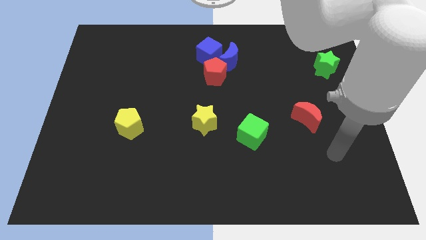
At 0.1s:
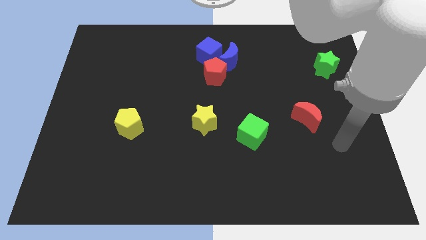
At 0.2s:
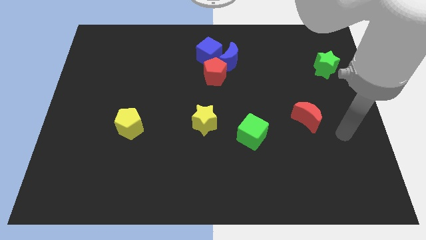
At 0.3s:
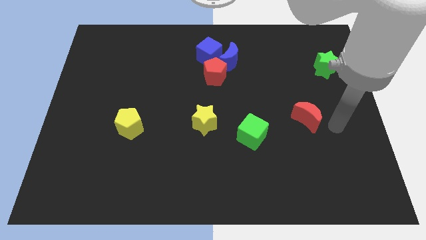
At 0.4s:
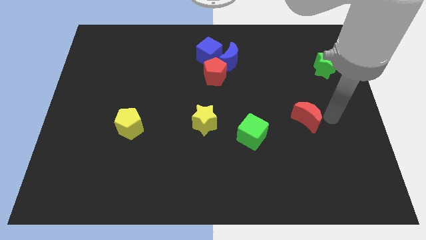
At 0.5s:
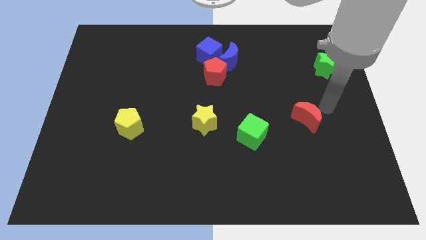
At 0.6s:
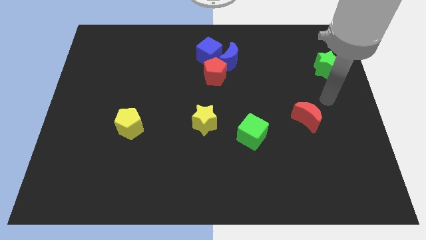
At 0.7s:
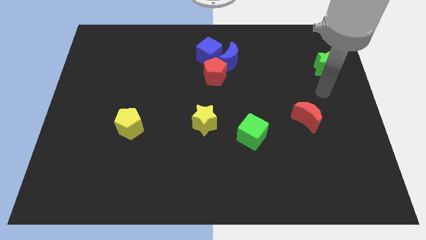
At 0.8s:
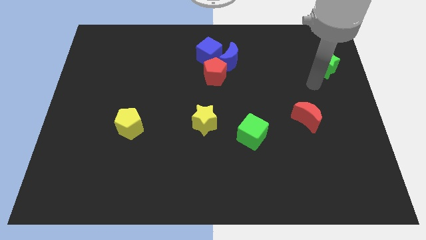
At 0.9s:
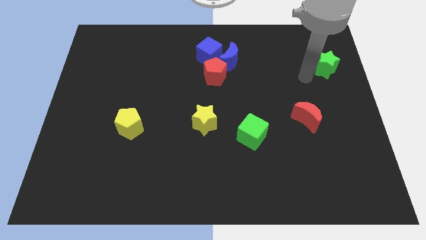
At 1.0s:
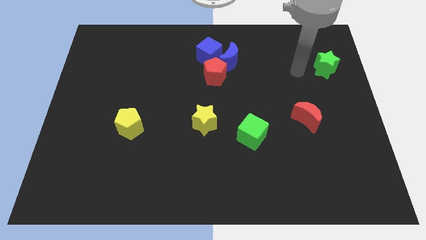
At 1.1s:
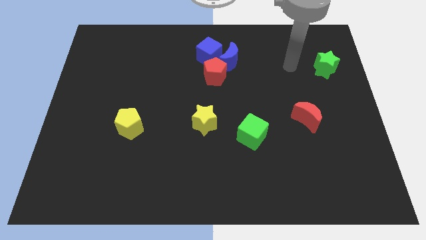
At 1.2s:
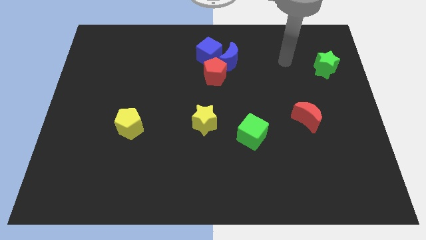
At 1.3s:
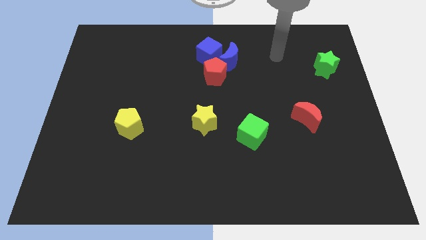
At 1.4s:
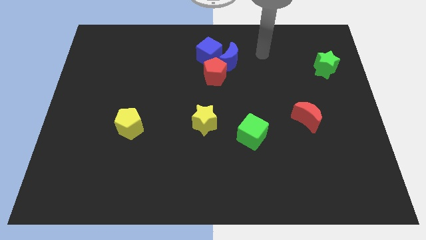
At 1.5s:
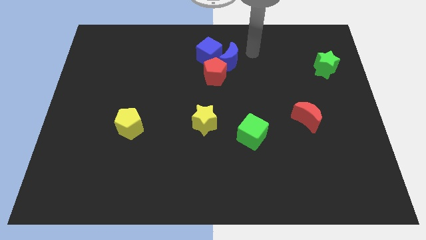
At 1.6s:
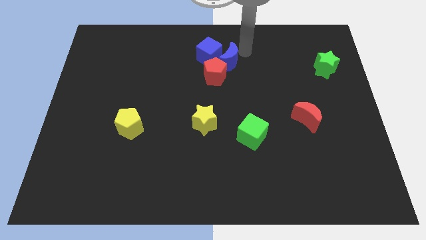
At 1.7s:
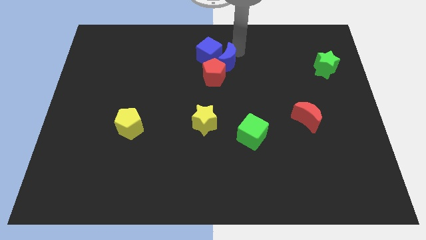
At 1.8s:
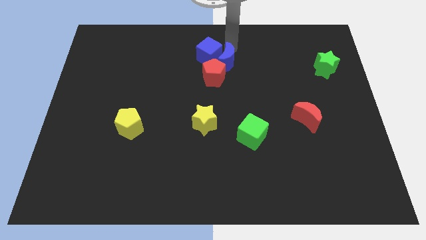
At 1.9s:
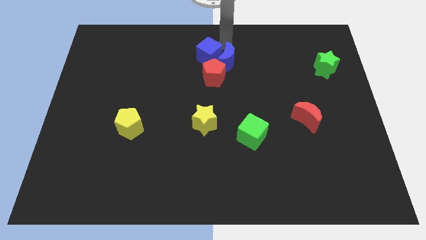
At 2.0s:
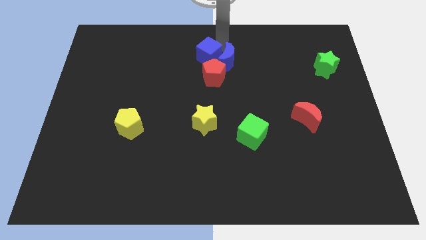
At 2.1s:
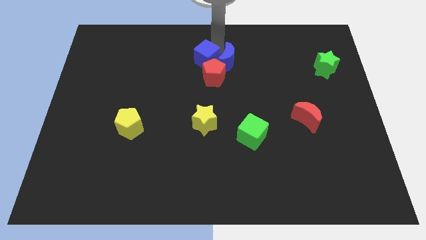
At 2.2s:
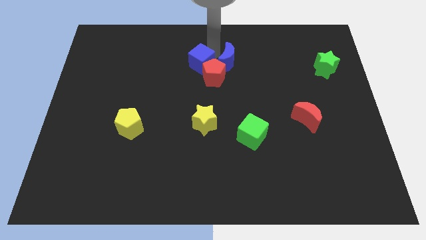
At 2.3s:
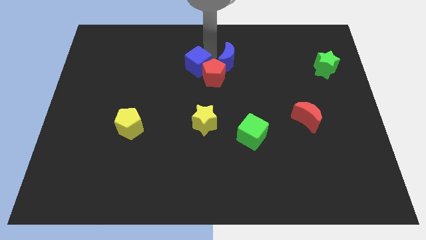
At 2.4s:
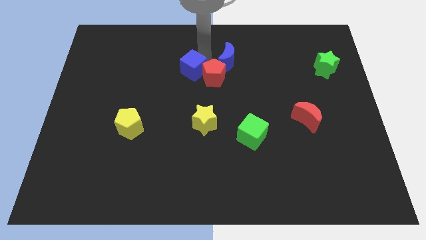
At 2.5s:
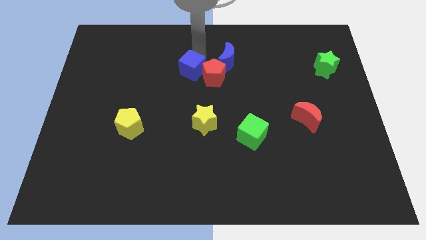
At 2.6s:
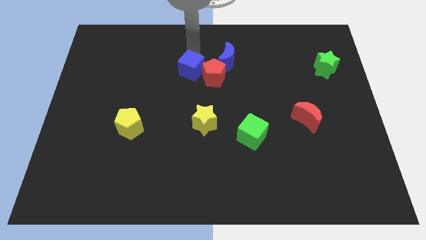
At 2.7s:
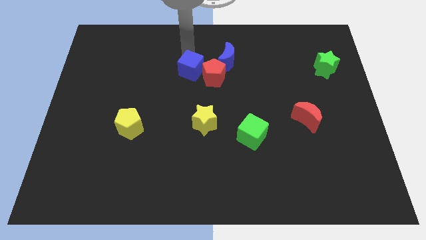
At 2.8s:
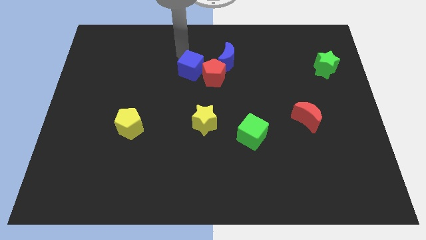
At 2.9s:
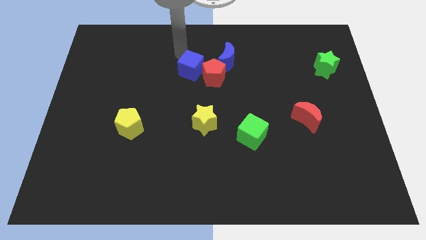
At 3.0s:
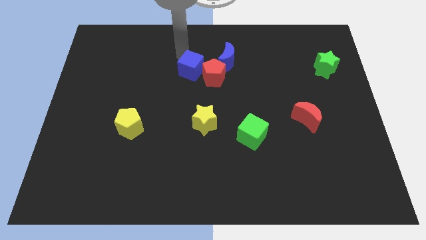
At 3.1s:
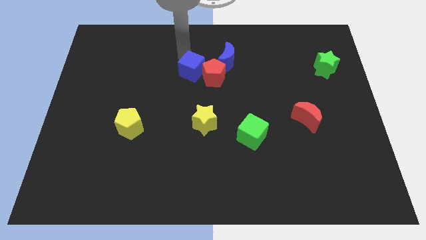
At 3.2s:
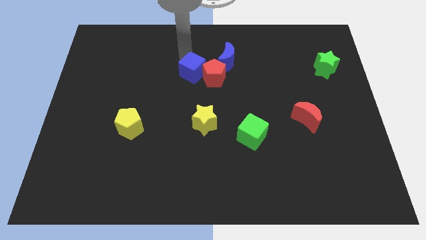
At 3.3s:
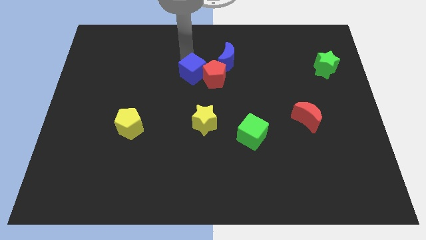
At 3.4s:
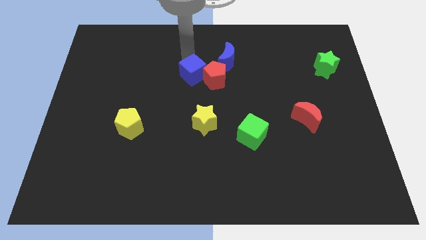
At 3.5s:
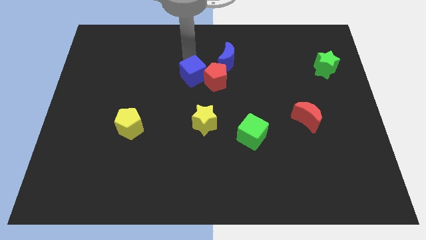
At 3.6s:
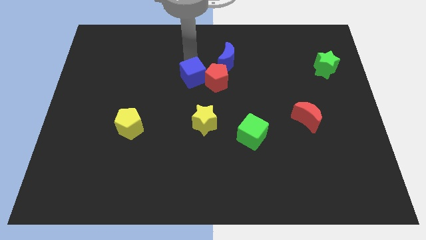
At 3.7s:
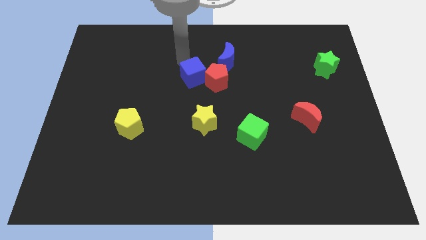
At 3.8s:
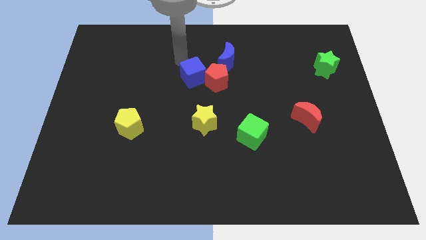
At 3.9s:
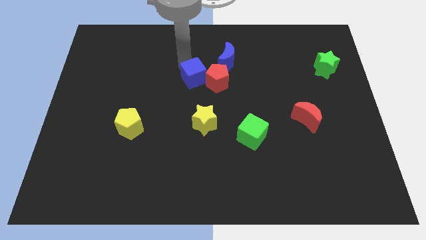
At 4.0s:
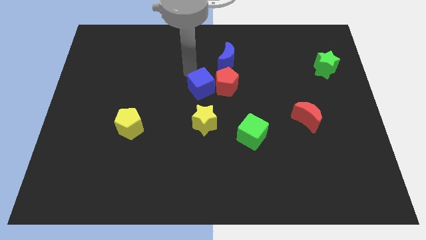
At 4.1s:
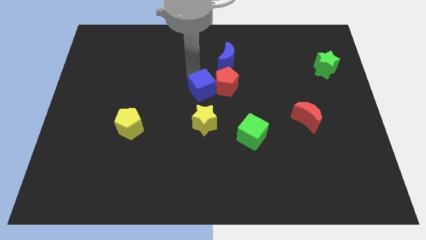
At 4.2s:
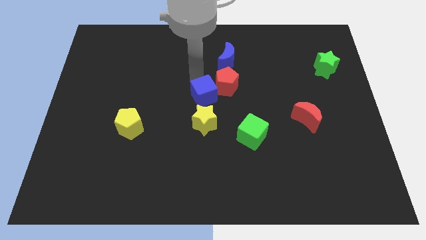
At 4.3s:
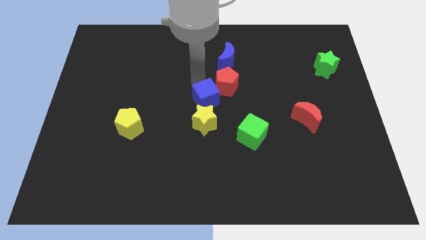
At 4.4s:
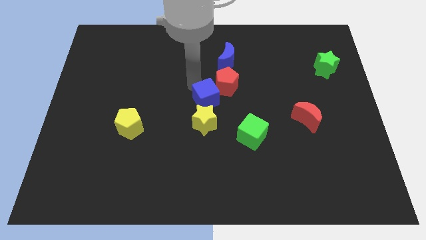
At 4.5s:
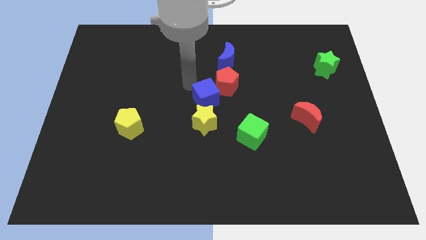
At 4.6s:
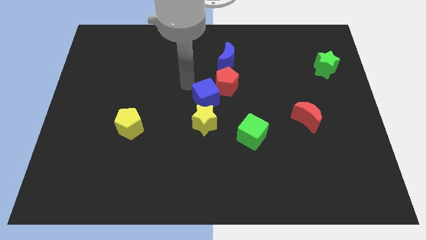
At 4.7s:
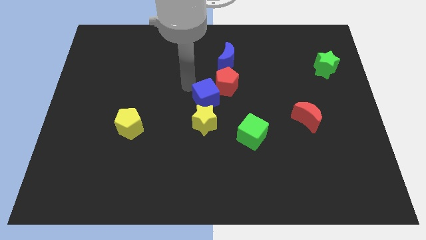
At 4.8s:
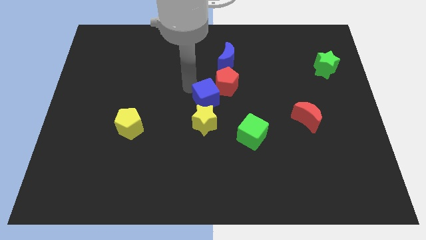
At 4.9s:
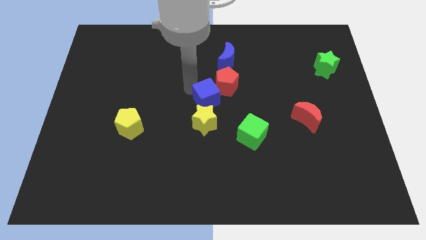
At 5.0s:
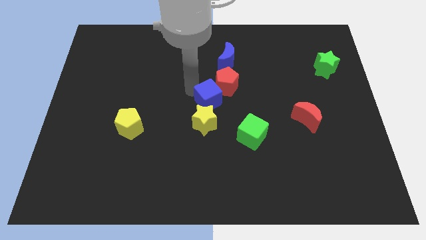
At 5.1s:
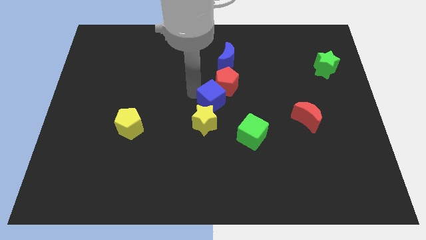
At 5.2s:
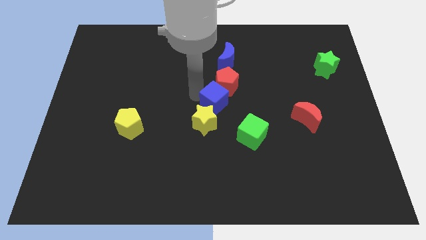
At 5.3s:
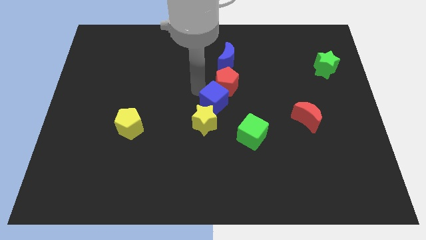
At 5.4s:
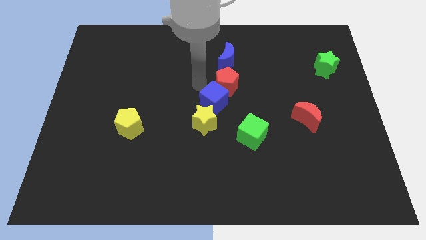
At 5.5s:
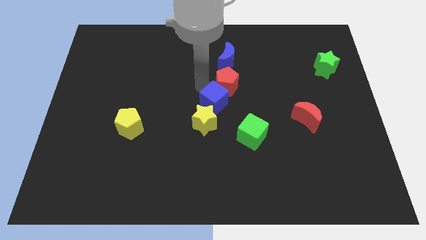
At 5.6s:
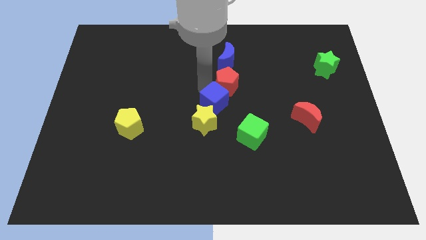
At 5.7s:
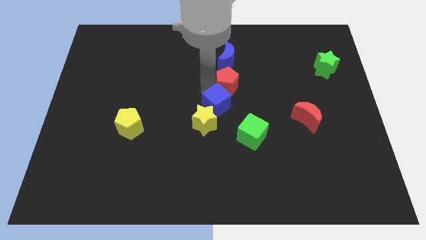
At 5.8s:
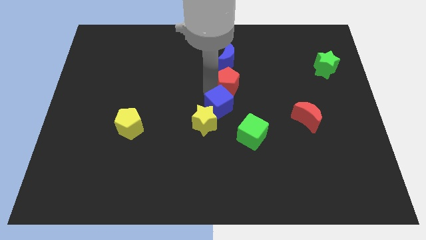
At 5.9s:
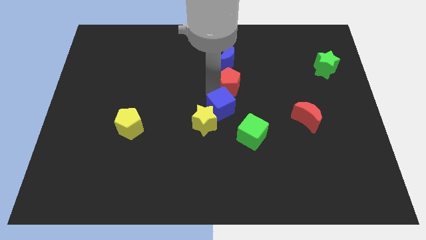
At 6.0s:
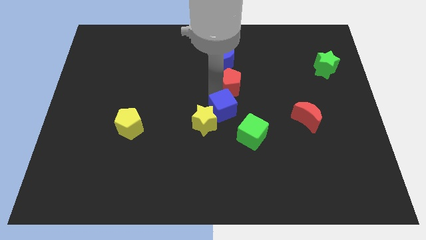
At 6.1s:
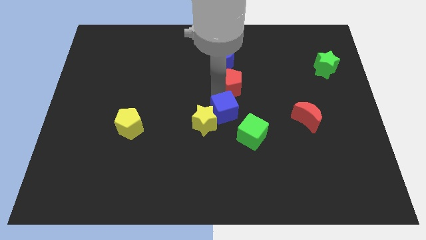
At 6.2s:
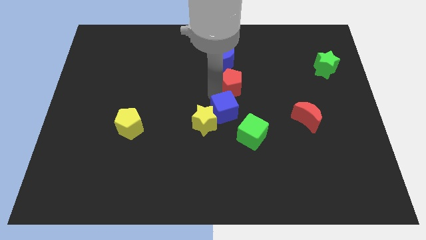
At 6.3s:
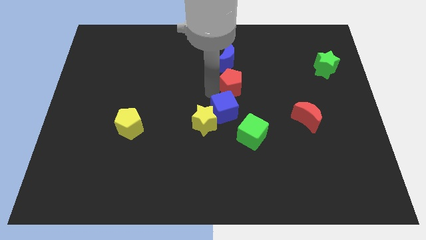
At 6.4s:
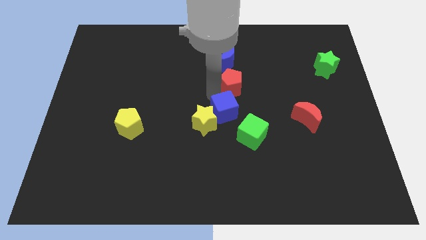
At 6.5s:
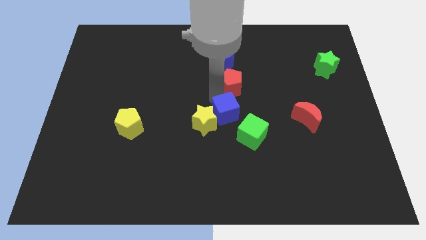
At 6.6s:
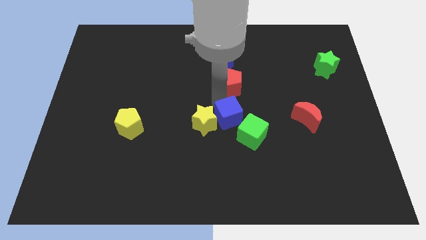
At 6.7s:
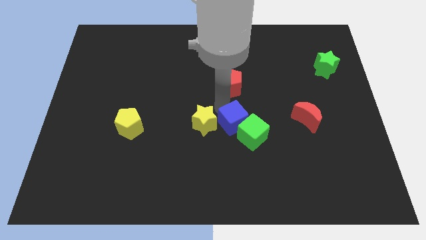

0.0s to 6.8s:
put the blue cube towards the green cube

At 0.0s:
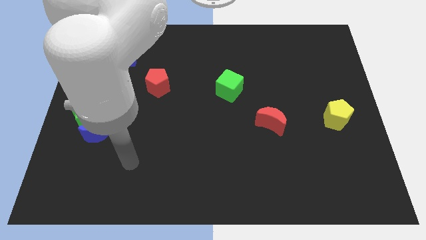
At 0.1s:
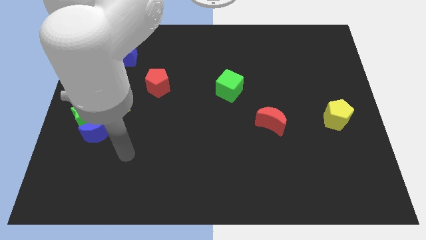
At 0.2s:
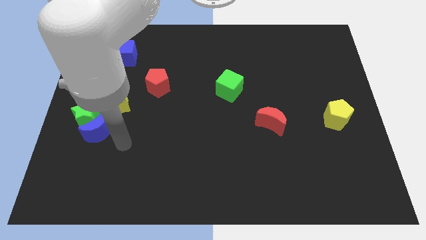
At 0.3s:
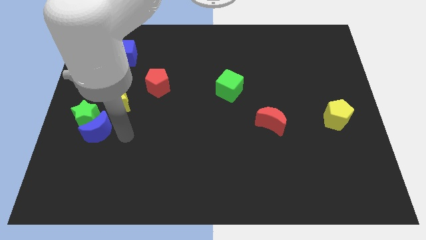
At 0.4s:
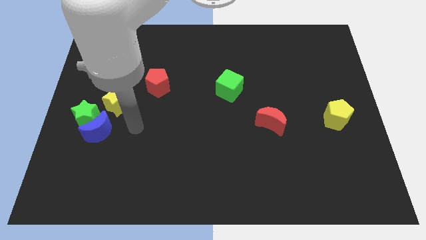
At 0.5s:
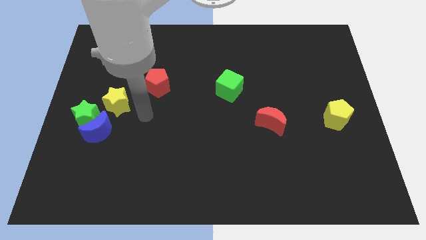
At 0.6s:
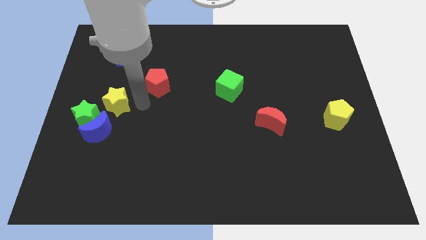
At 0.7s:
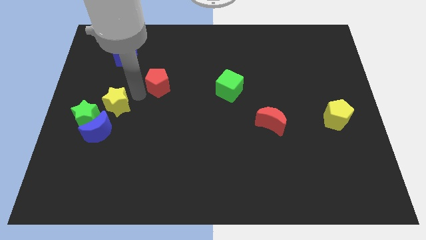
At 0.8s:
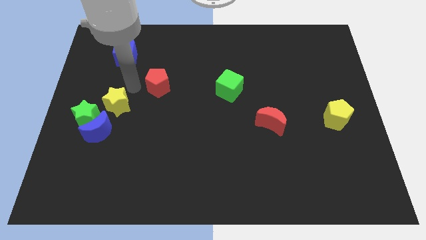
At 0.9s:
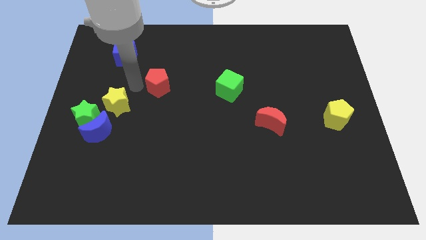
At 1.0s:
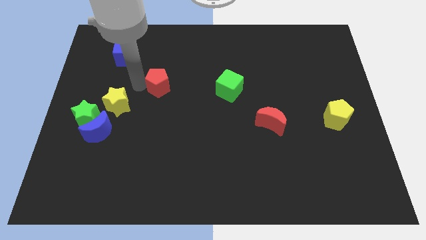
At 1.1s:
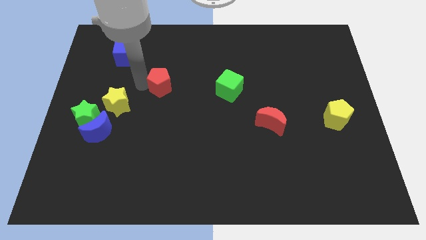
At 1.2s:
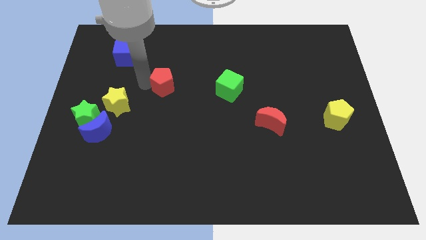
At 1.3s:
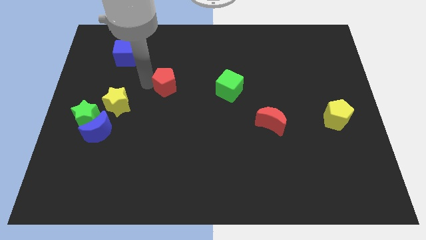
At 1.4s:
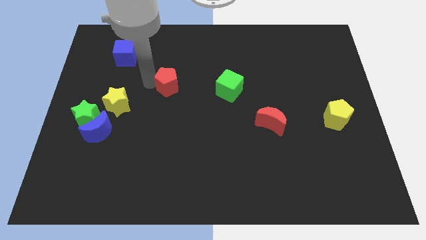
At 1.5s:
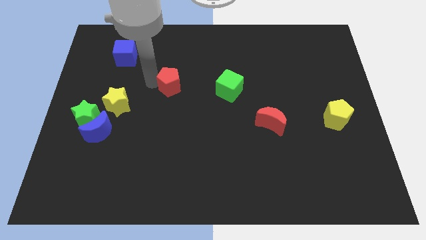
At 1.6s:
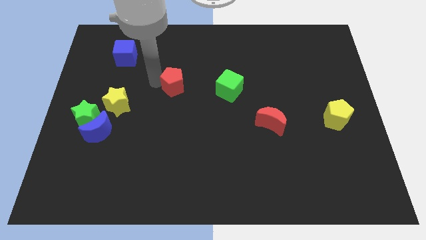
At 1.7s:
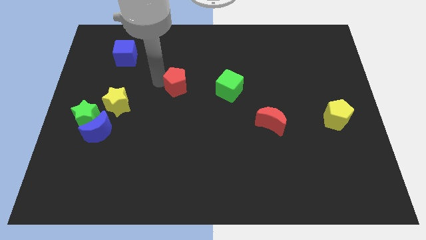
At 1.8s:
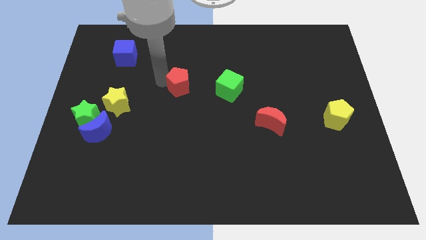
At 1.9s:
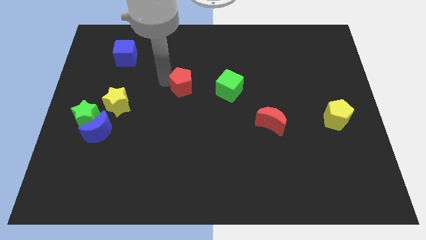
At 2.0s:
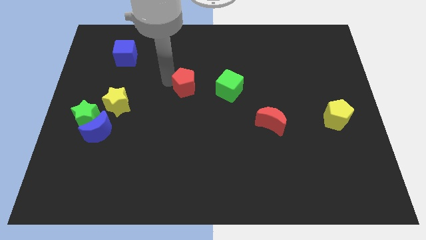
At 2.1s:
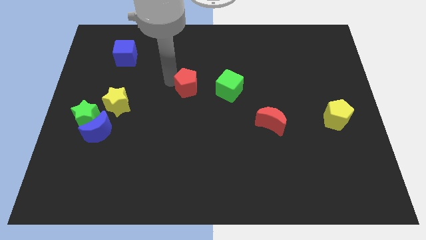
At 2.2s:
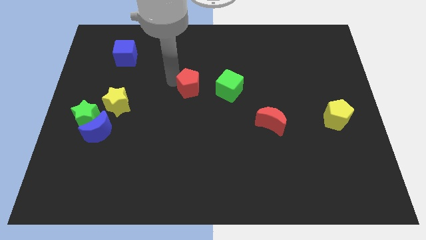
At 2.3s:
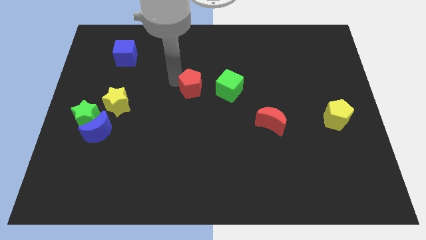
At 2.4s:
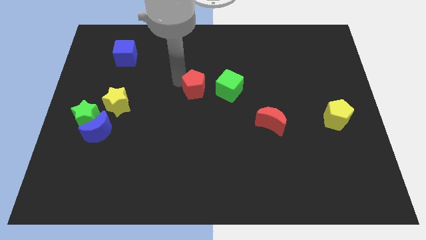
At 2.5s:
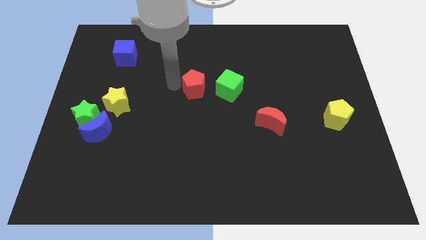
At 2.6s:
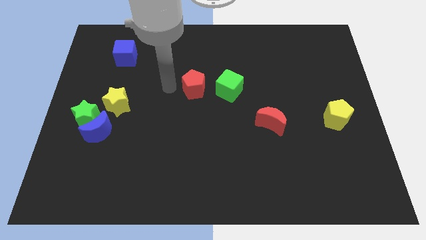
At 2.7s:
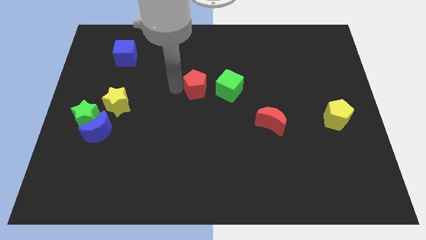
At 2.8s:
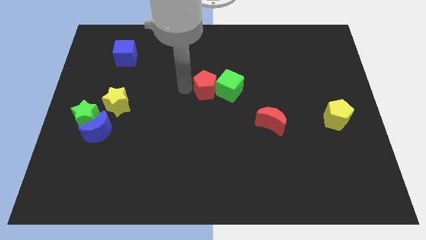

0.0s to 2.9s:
move the red pentagon next to the green cube
